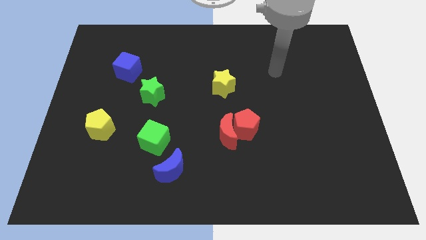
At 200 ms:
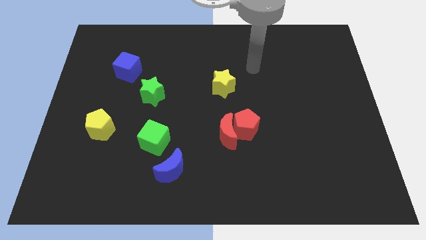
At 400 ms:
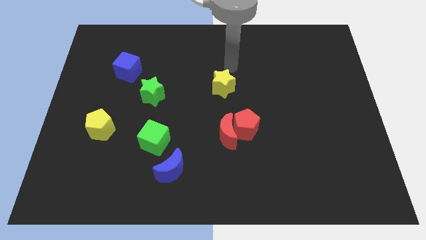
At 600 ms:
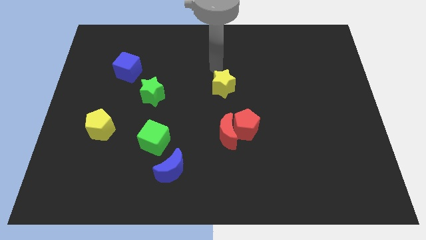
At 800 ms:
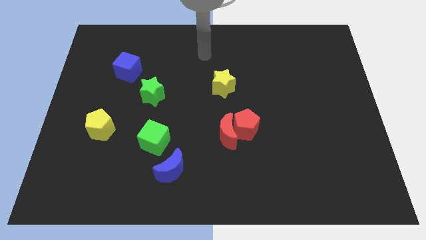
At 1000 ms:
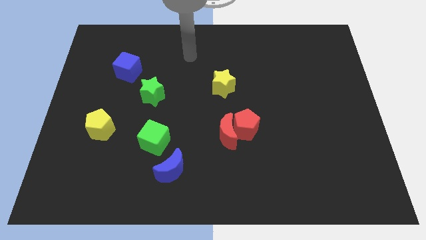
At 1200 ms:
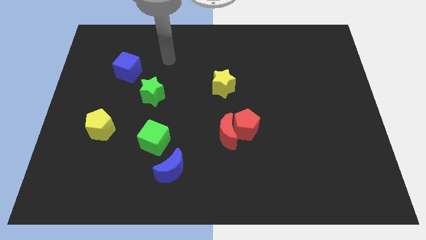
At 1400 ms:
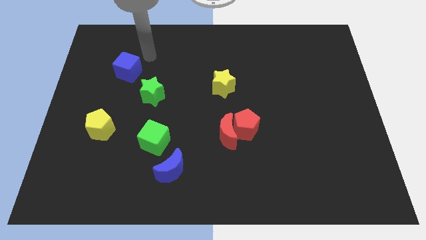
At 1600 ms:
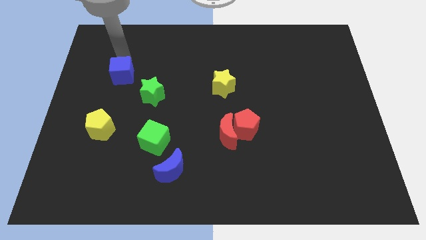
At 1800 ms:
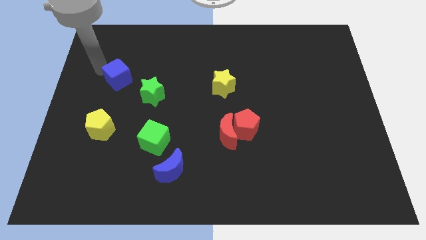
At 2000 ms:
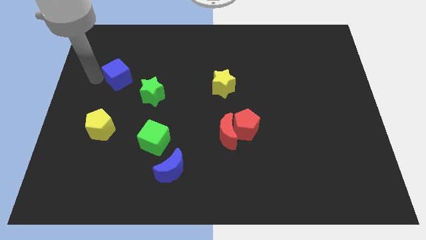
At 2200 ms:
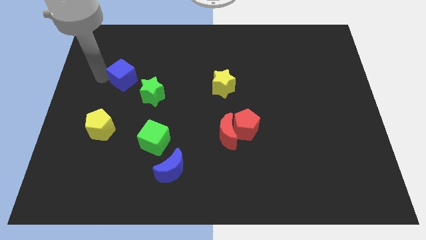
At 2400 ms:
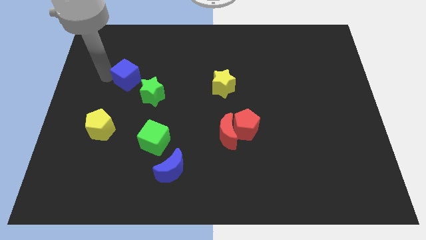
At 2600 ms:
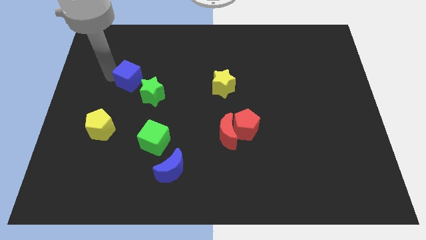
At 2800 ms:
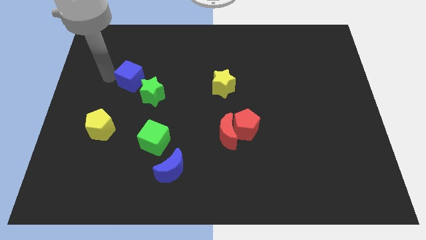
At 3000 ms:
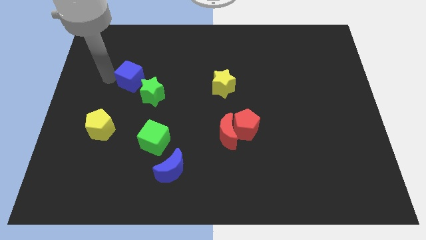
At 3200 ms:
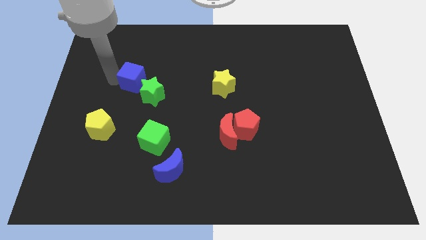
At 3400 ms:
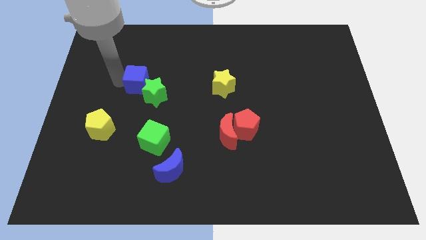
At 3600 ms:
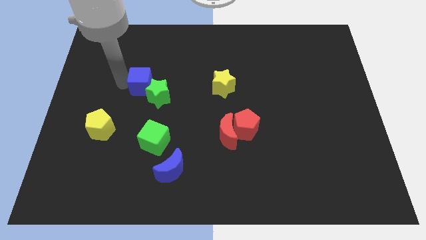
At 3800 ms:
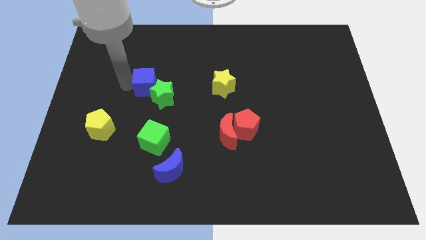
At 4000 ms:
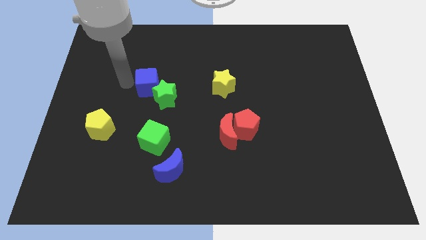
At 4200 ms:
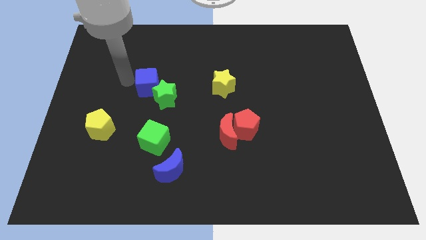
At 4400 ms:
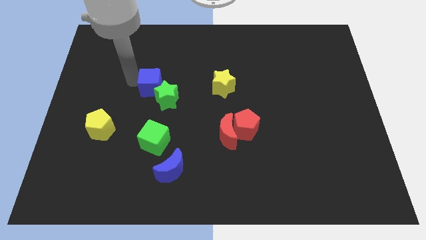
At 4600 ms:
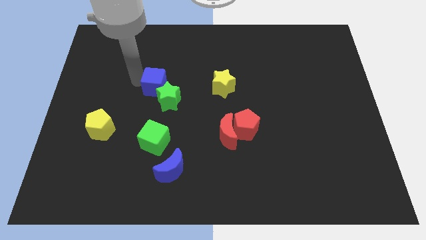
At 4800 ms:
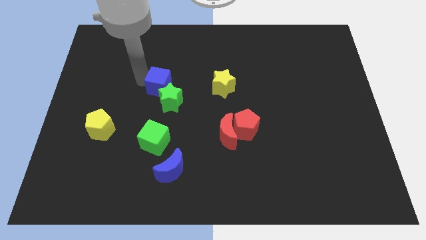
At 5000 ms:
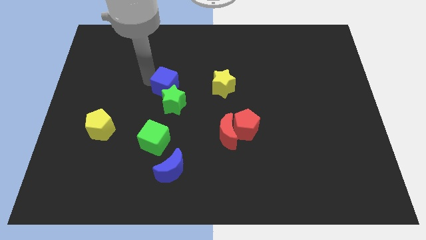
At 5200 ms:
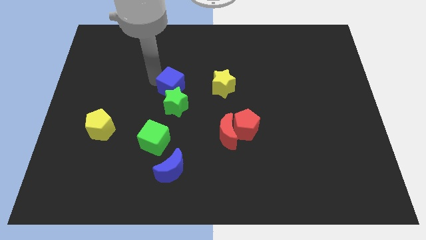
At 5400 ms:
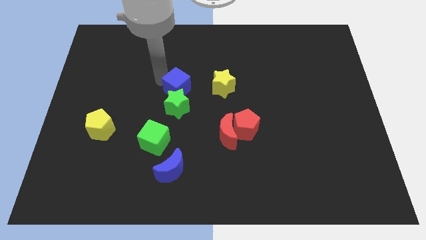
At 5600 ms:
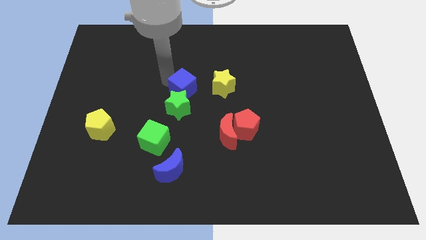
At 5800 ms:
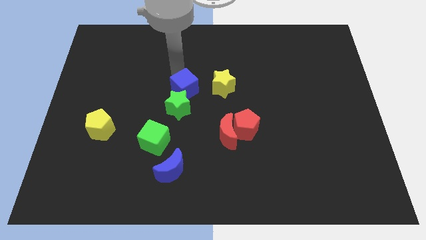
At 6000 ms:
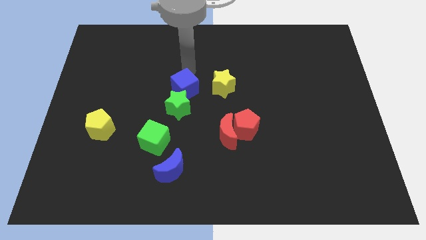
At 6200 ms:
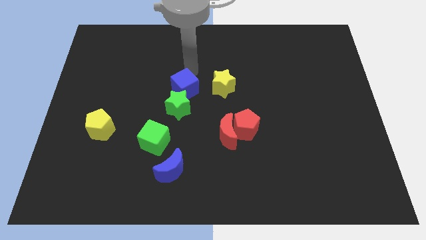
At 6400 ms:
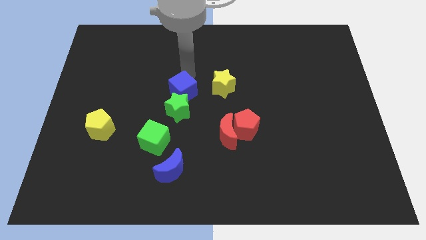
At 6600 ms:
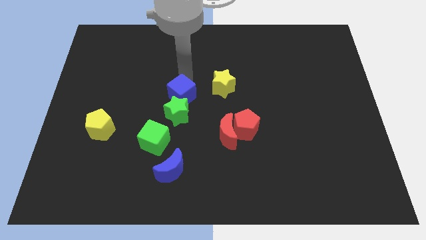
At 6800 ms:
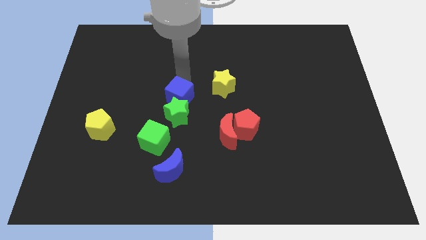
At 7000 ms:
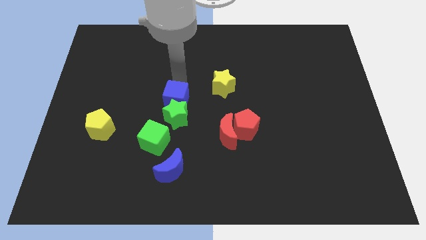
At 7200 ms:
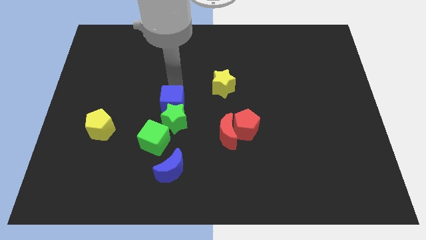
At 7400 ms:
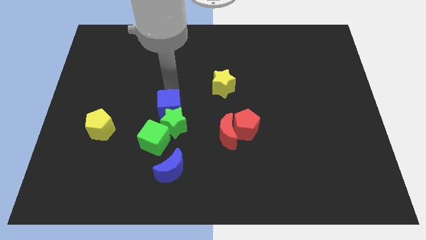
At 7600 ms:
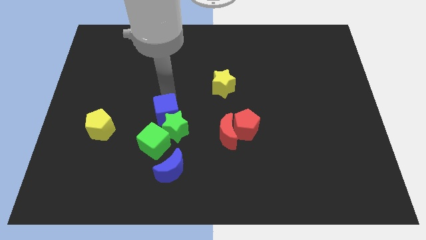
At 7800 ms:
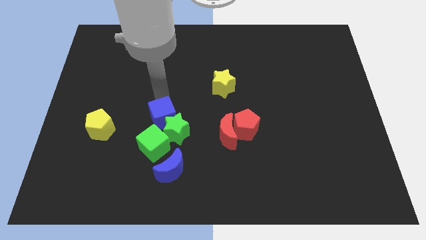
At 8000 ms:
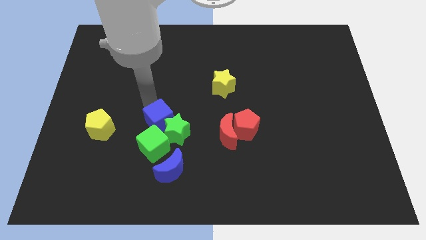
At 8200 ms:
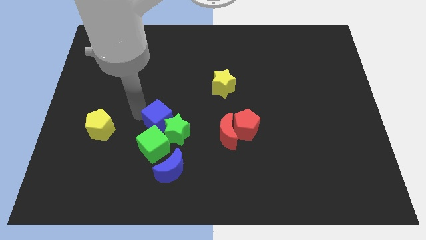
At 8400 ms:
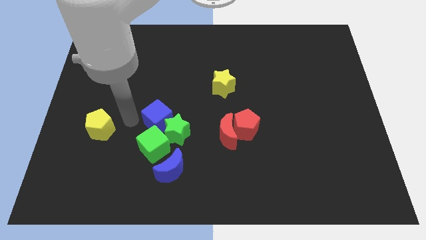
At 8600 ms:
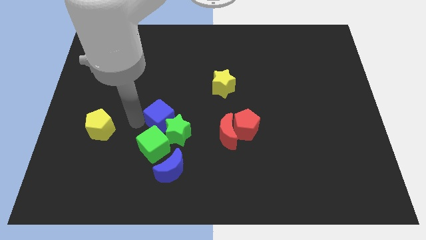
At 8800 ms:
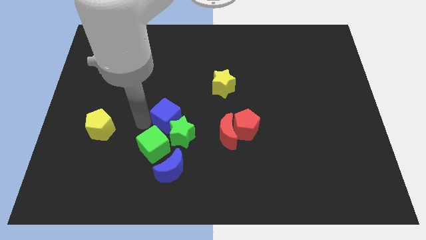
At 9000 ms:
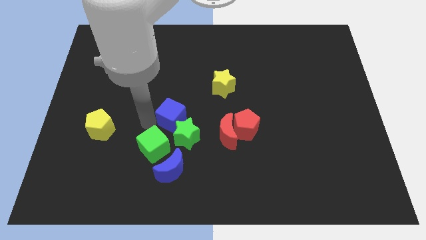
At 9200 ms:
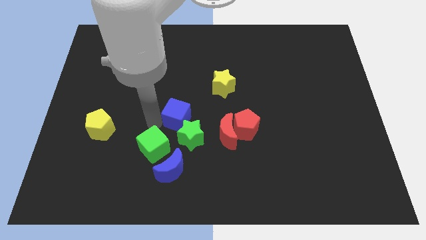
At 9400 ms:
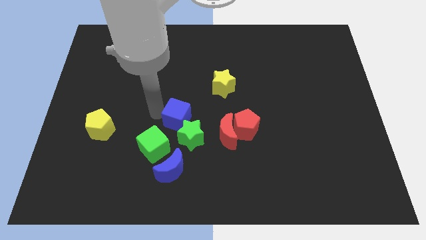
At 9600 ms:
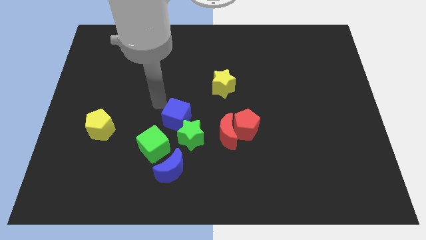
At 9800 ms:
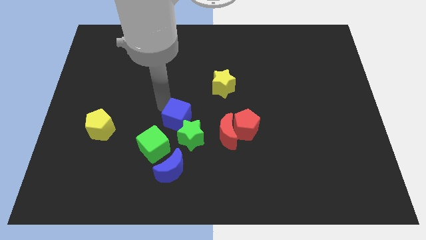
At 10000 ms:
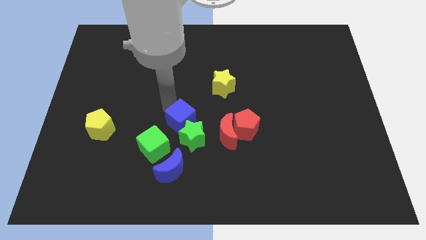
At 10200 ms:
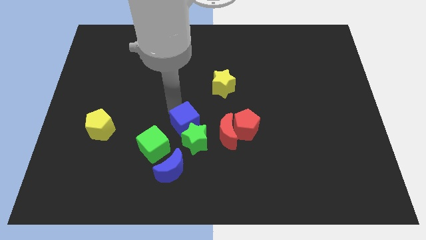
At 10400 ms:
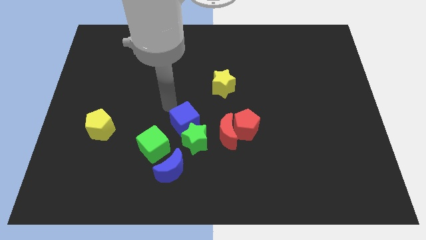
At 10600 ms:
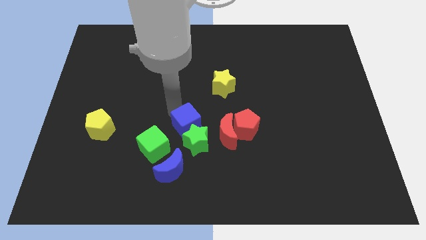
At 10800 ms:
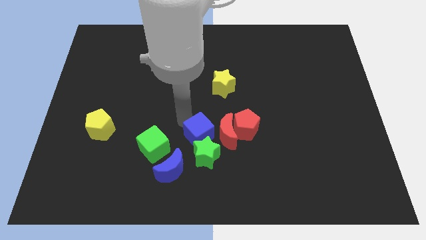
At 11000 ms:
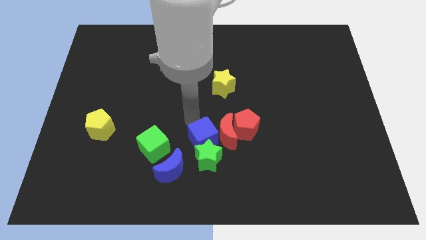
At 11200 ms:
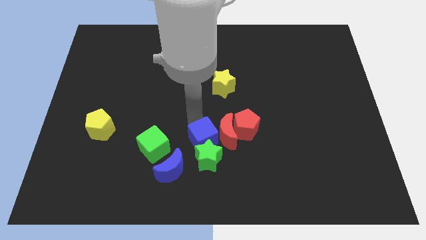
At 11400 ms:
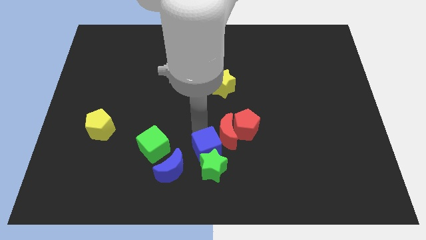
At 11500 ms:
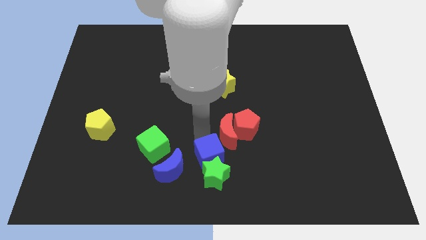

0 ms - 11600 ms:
push the blue cube just right of the blue moon

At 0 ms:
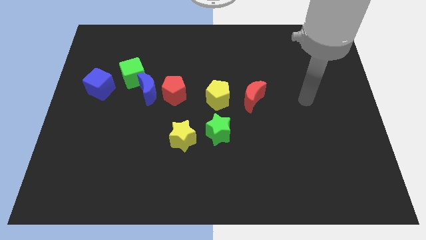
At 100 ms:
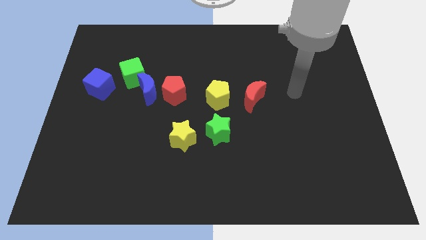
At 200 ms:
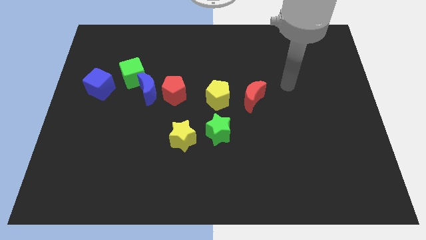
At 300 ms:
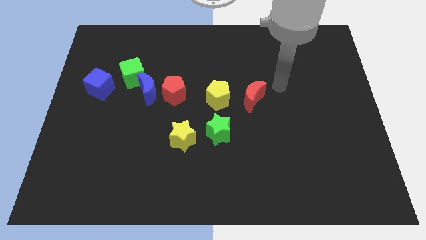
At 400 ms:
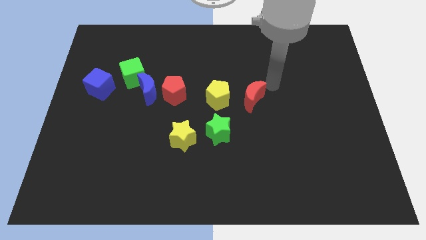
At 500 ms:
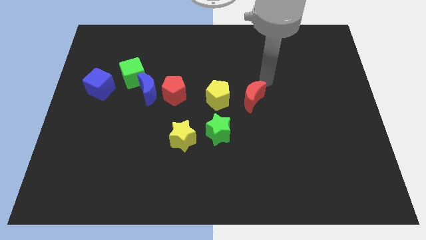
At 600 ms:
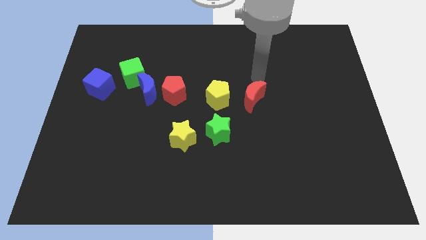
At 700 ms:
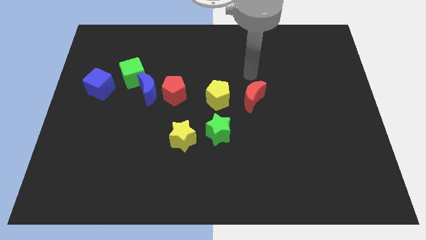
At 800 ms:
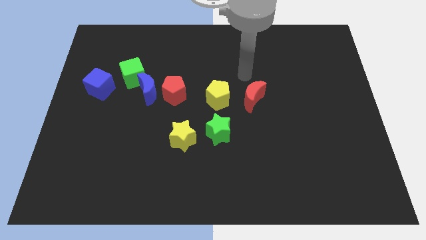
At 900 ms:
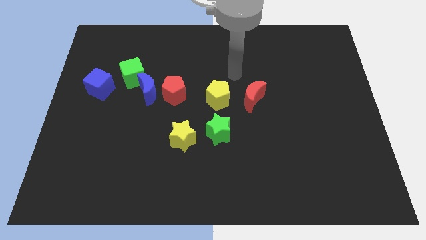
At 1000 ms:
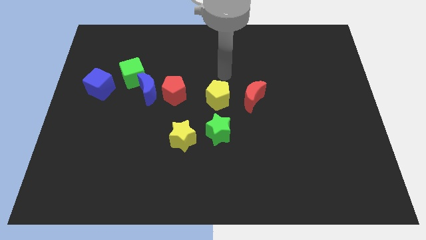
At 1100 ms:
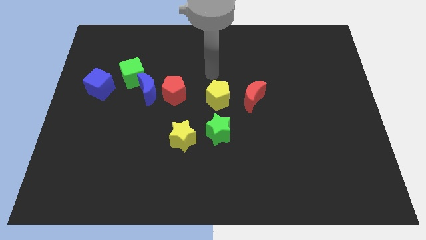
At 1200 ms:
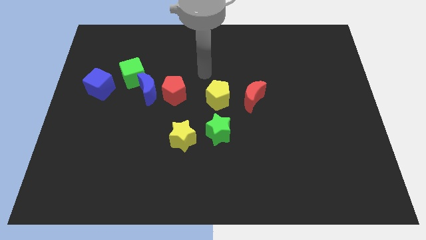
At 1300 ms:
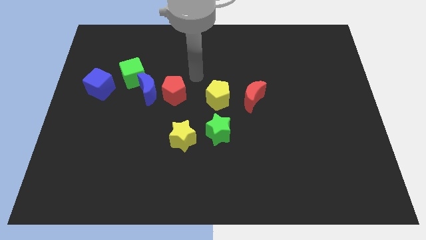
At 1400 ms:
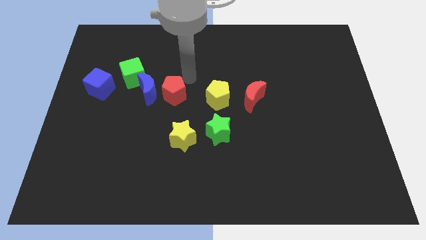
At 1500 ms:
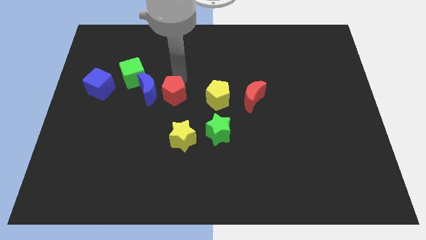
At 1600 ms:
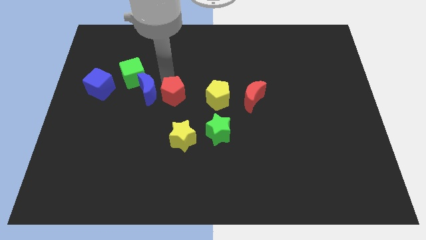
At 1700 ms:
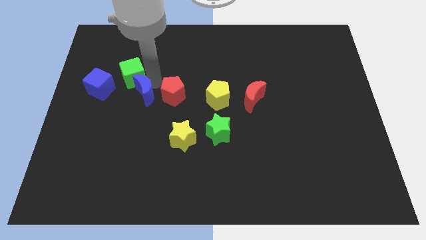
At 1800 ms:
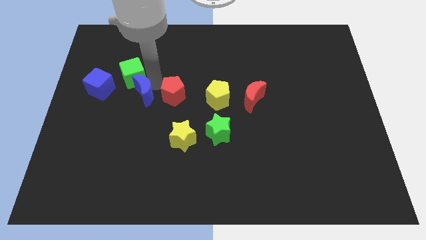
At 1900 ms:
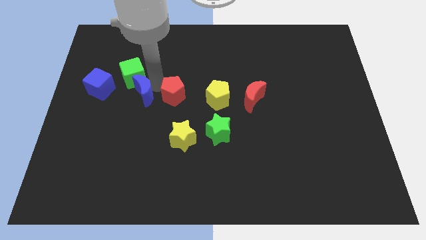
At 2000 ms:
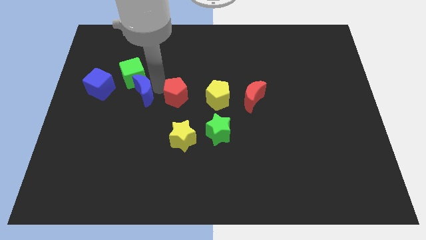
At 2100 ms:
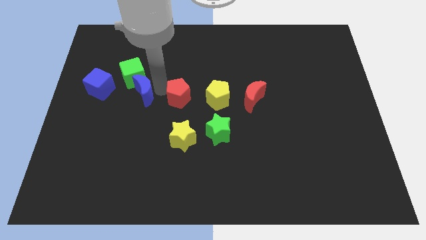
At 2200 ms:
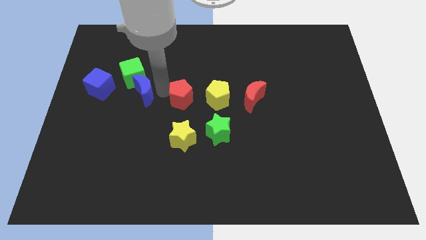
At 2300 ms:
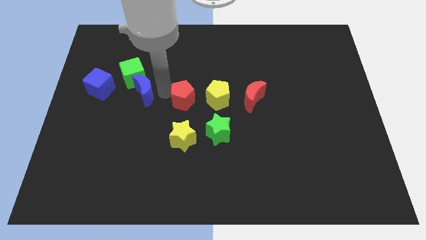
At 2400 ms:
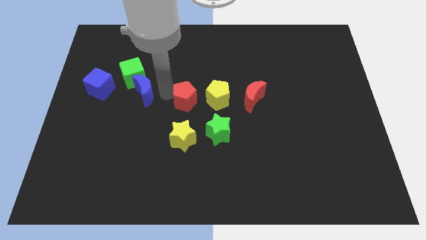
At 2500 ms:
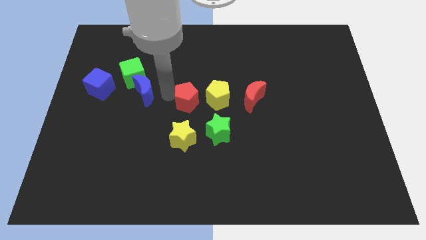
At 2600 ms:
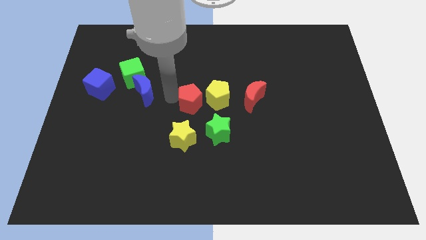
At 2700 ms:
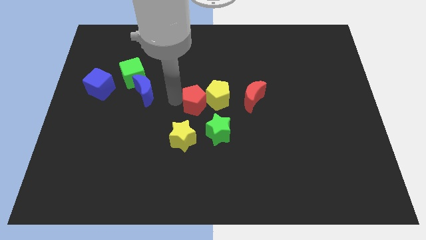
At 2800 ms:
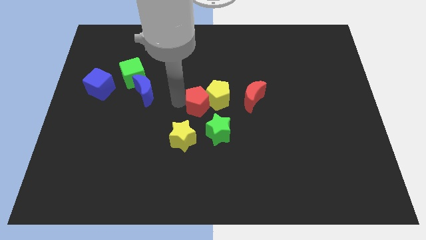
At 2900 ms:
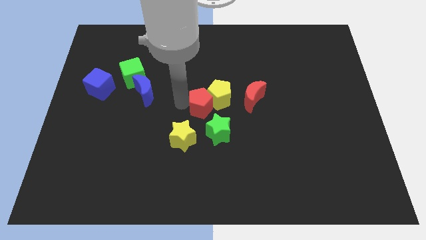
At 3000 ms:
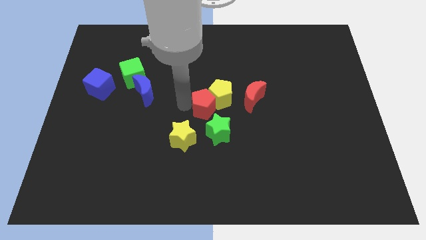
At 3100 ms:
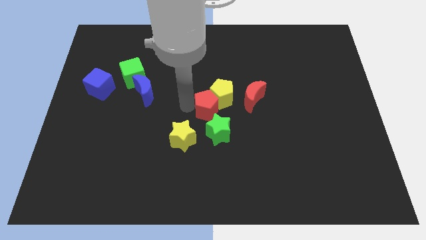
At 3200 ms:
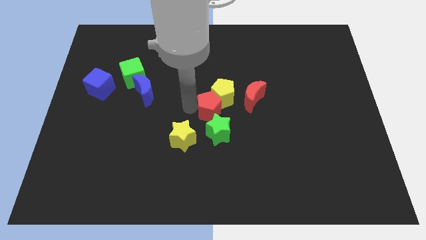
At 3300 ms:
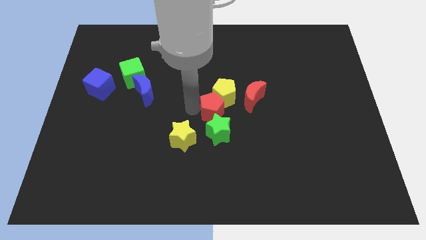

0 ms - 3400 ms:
move the red pentagon to the bottom left side of the red moon
